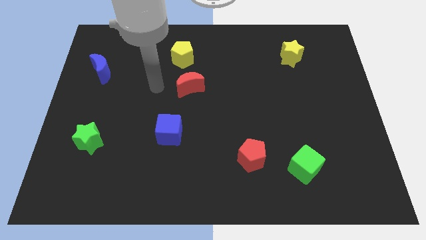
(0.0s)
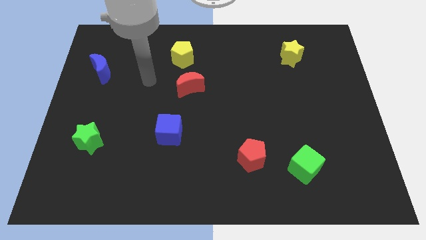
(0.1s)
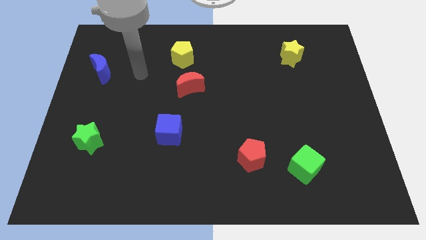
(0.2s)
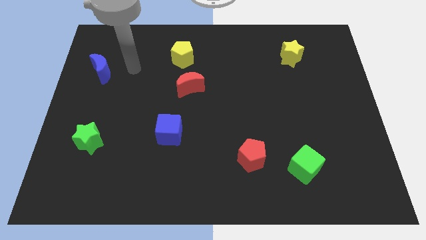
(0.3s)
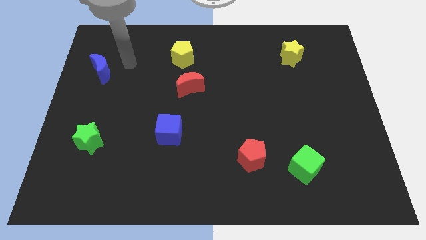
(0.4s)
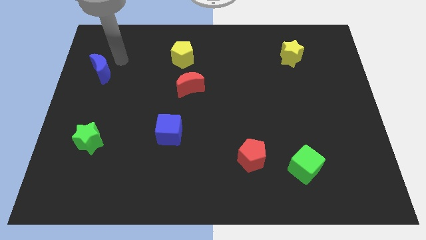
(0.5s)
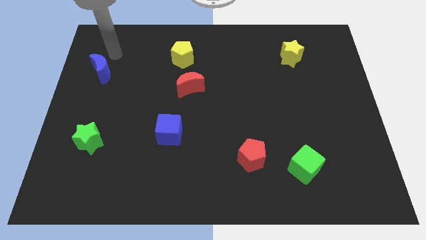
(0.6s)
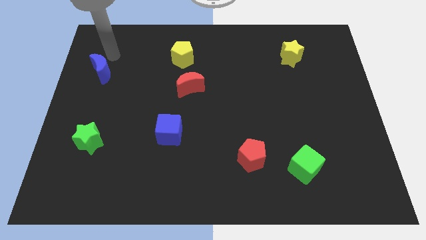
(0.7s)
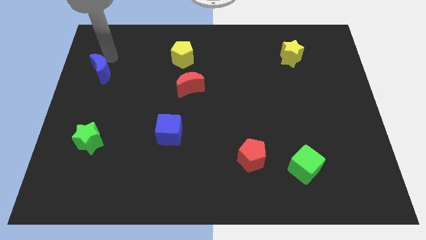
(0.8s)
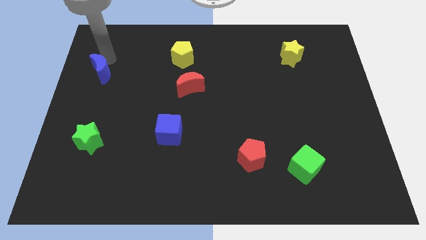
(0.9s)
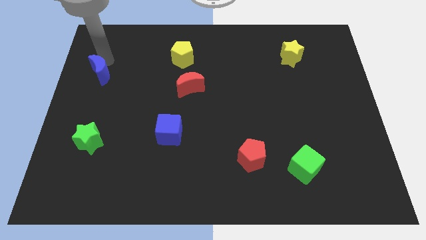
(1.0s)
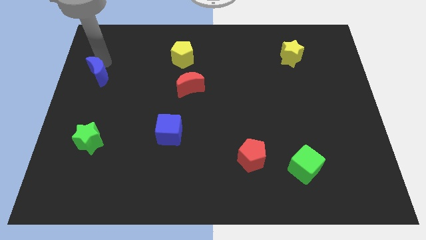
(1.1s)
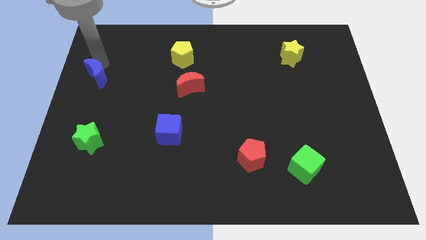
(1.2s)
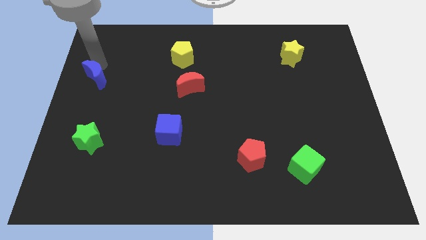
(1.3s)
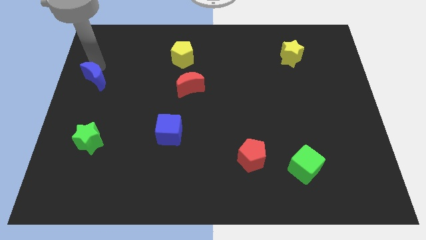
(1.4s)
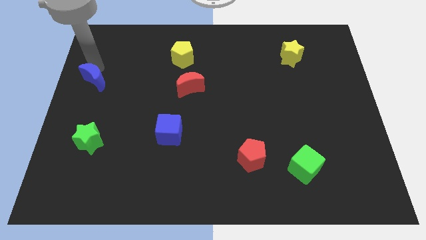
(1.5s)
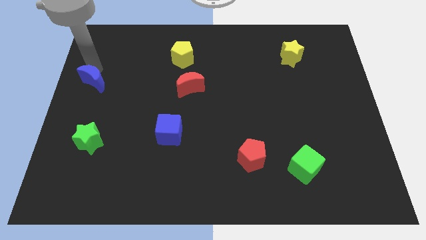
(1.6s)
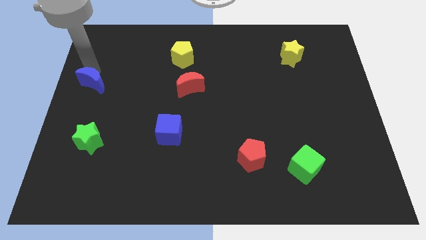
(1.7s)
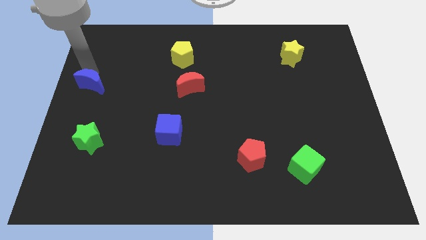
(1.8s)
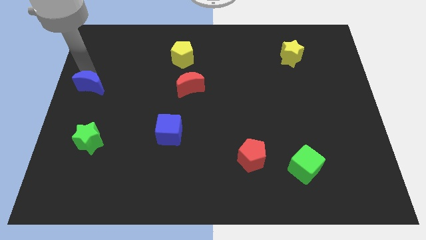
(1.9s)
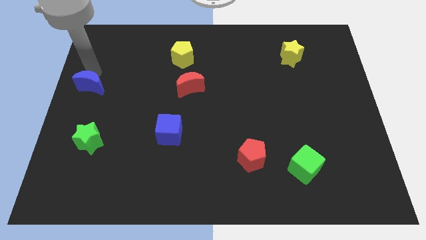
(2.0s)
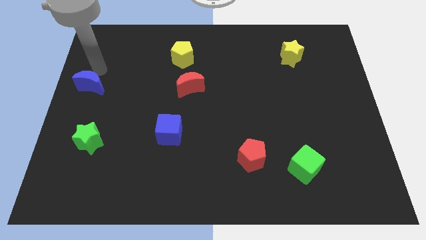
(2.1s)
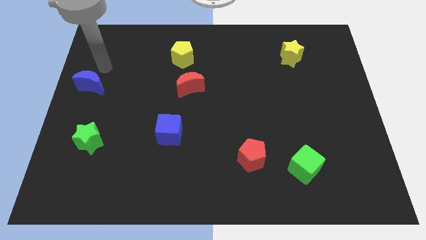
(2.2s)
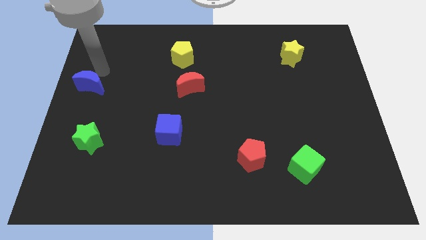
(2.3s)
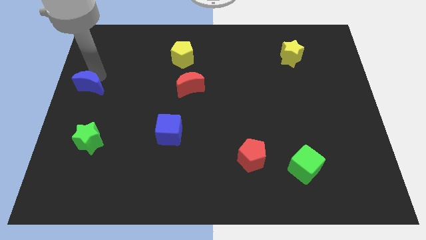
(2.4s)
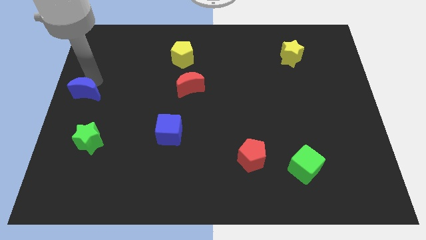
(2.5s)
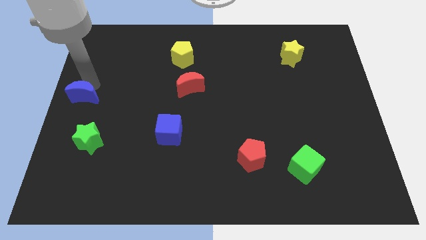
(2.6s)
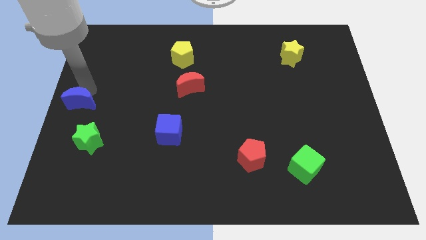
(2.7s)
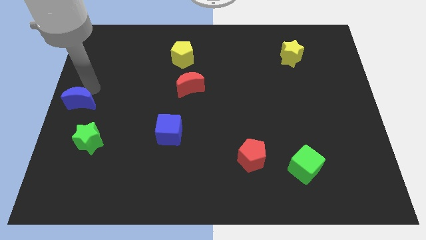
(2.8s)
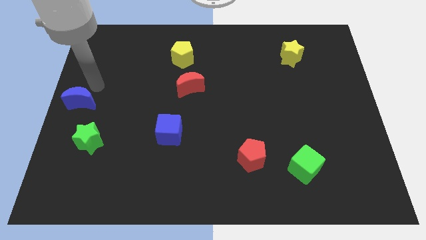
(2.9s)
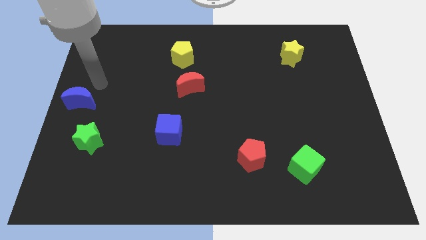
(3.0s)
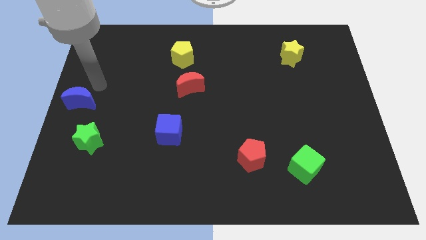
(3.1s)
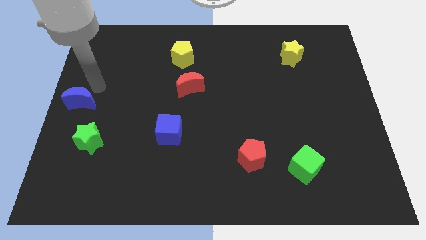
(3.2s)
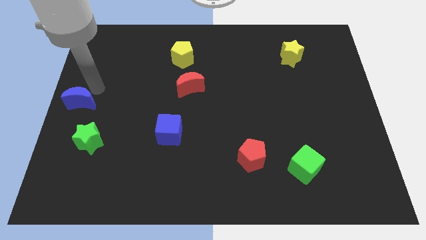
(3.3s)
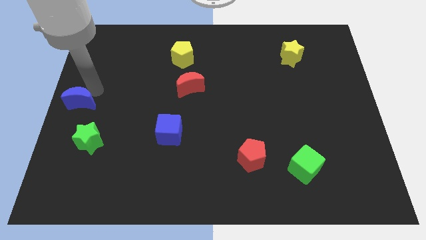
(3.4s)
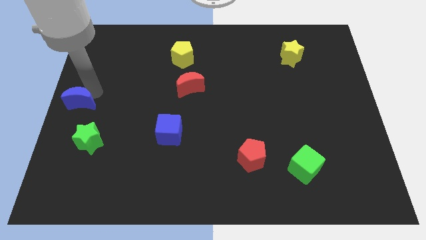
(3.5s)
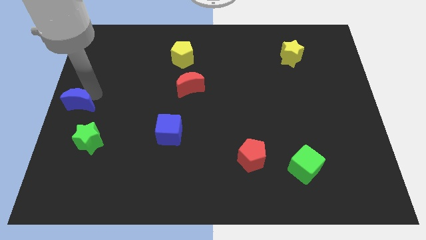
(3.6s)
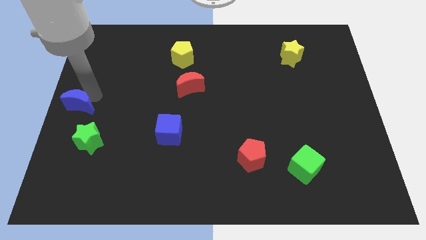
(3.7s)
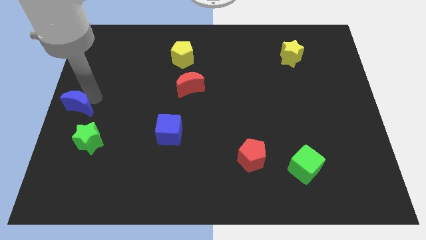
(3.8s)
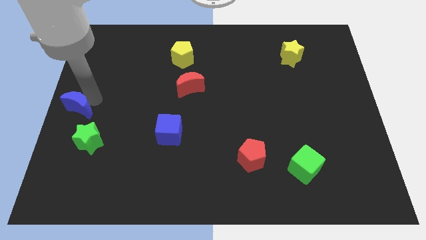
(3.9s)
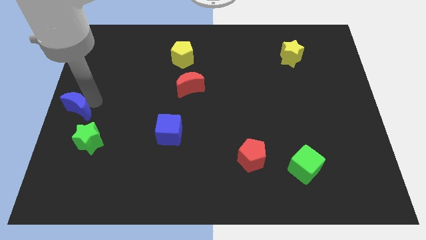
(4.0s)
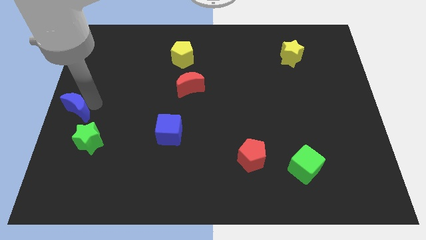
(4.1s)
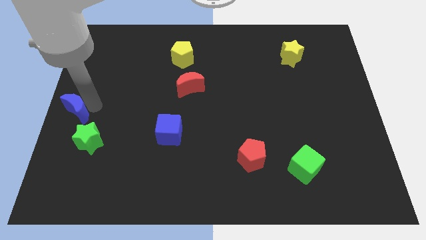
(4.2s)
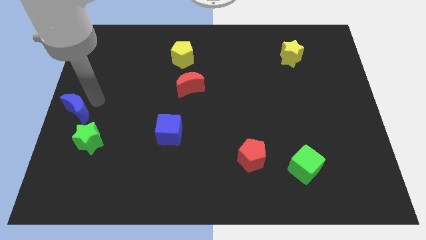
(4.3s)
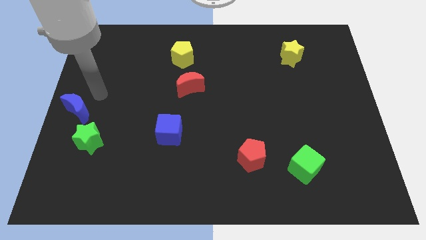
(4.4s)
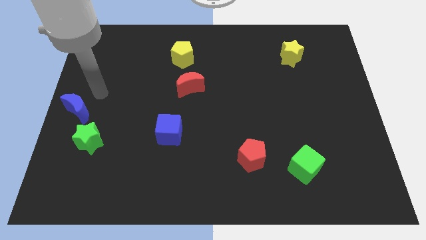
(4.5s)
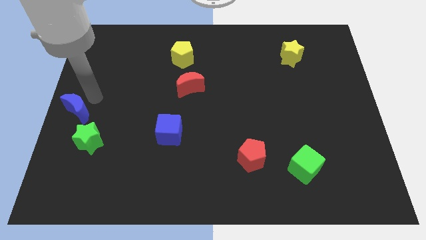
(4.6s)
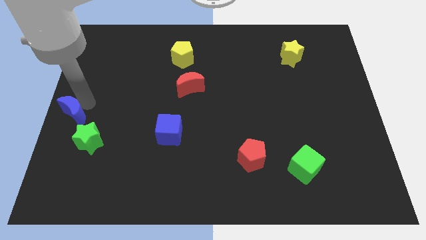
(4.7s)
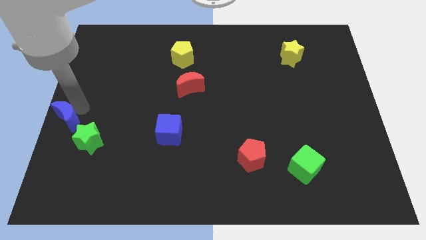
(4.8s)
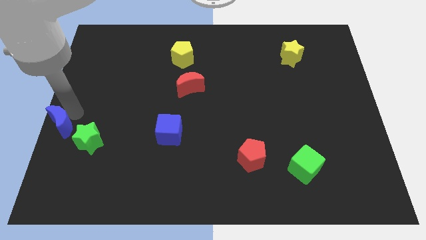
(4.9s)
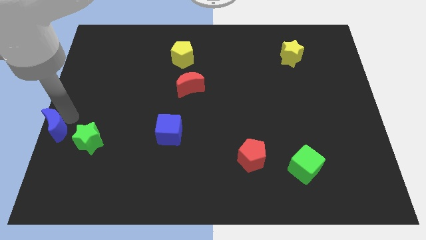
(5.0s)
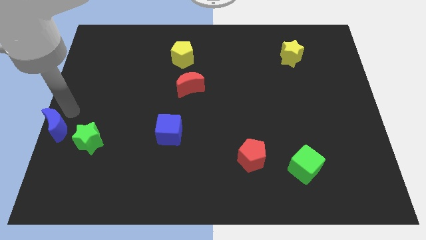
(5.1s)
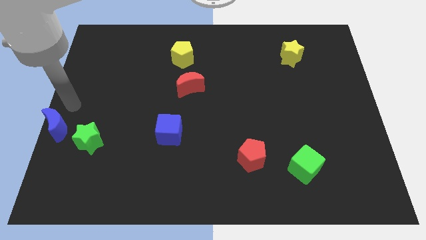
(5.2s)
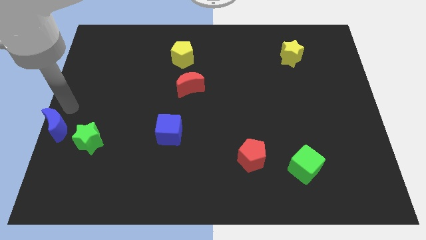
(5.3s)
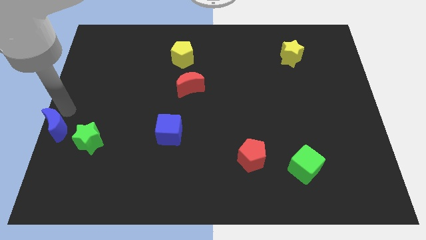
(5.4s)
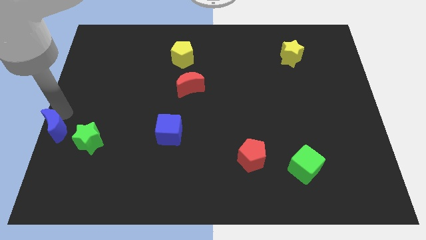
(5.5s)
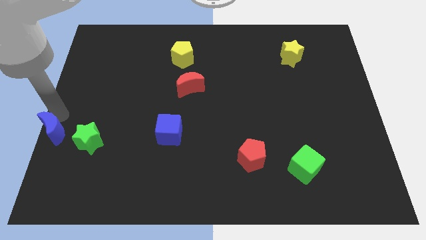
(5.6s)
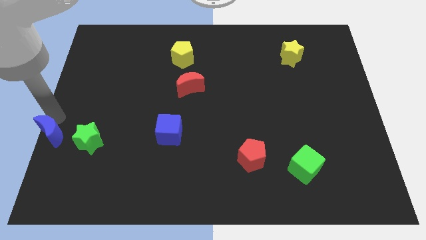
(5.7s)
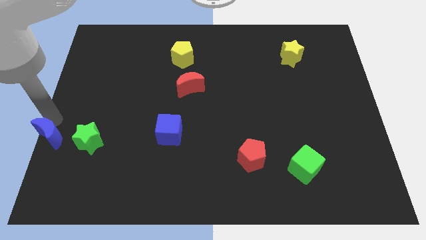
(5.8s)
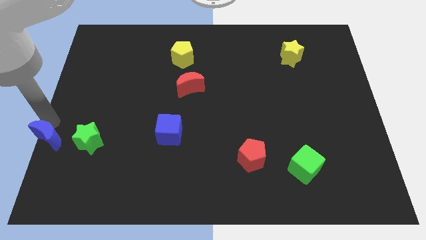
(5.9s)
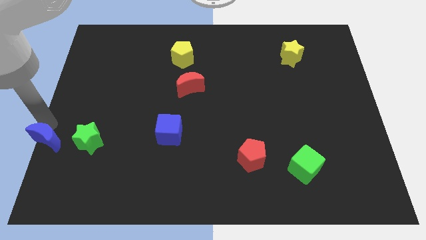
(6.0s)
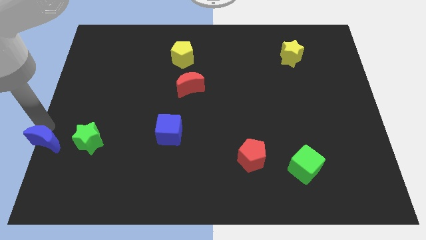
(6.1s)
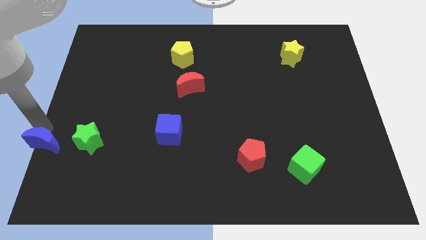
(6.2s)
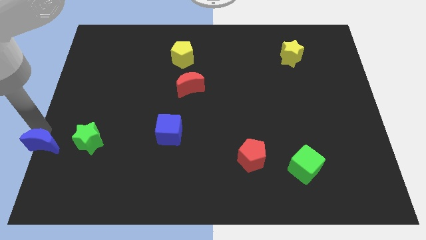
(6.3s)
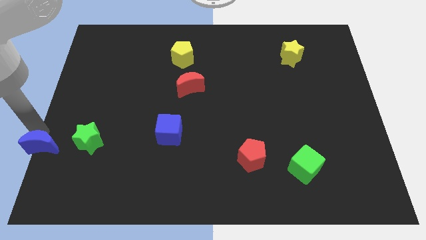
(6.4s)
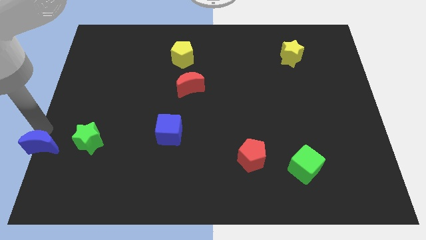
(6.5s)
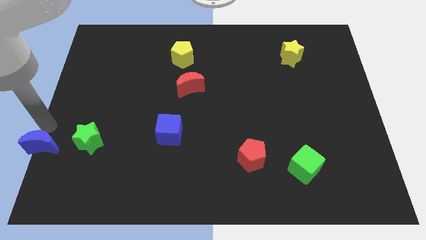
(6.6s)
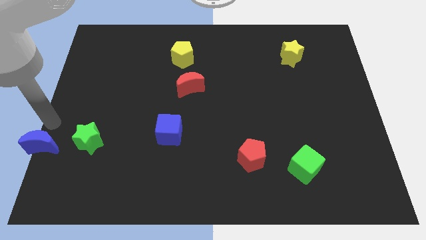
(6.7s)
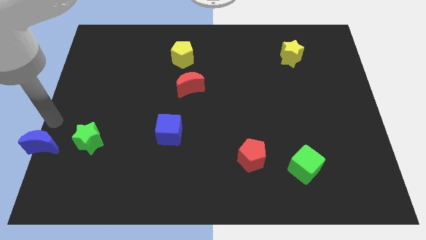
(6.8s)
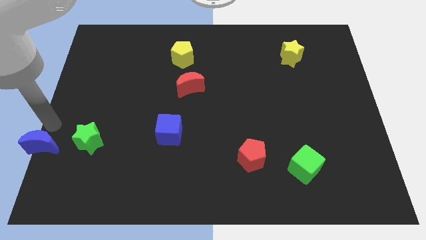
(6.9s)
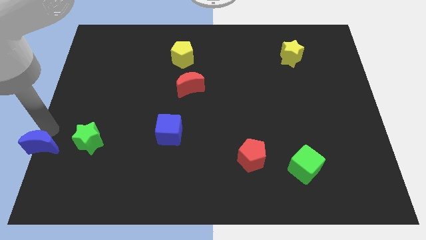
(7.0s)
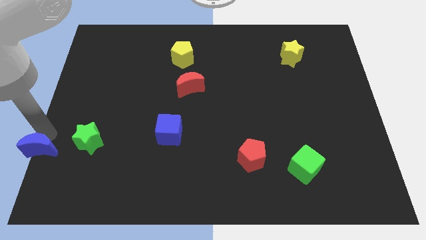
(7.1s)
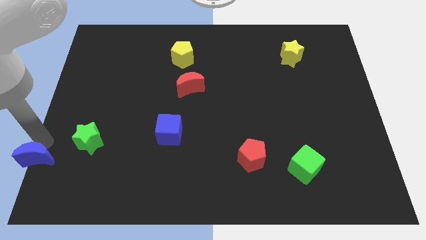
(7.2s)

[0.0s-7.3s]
put the blue moon to the lower left corner
